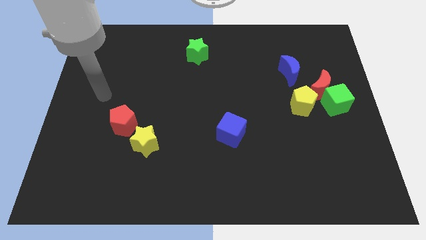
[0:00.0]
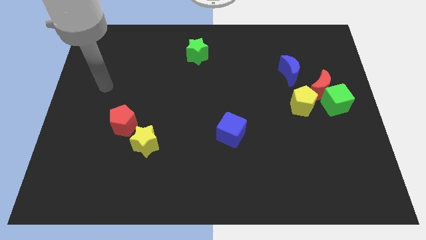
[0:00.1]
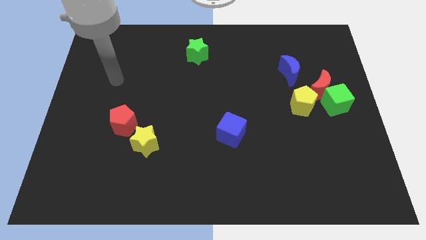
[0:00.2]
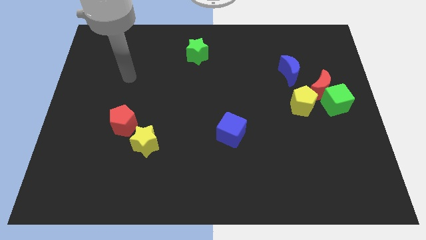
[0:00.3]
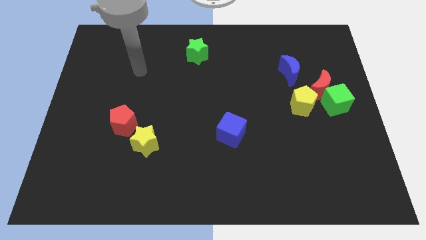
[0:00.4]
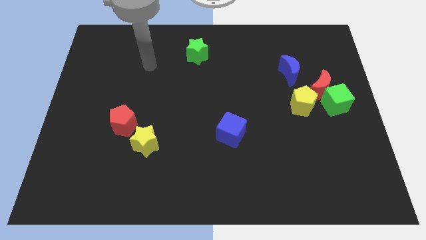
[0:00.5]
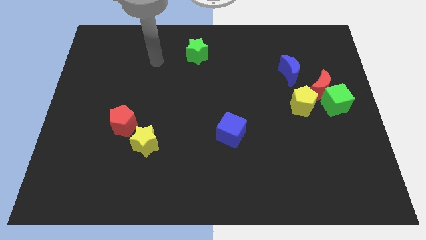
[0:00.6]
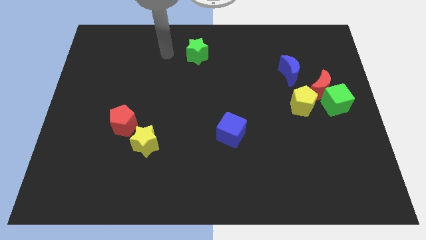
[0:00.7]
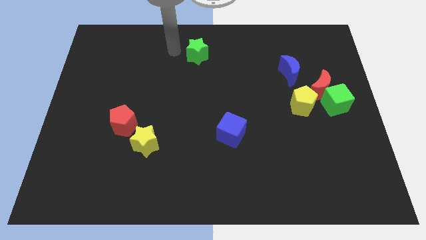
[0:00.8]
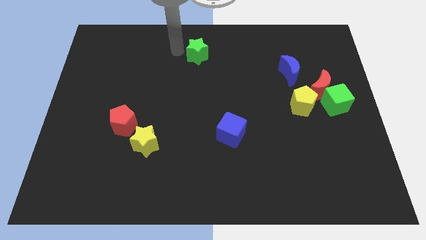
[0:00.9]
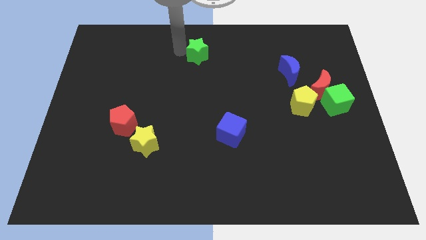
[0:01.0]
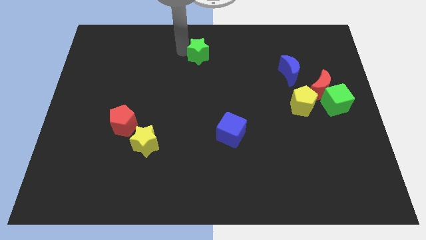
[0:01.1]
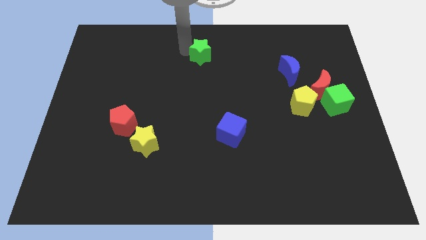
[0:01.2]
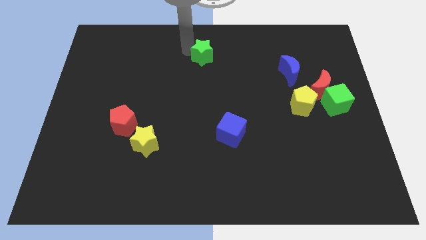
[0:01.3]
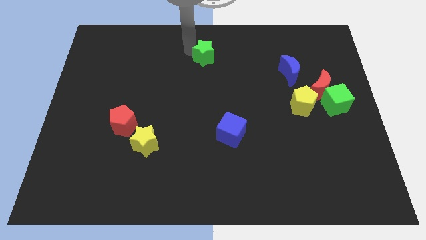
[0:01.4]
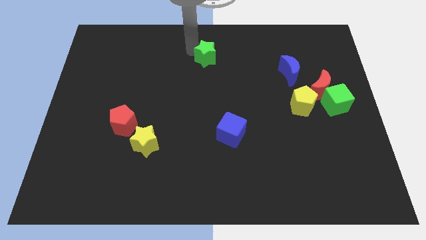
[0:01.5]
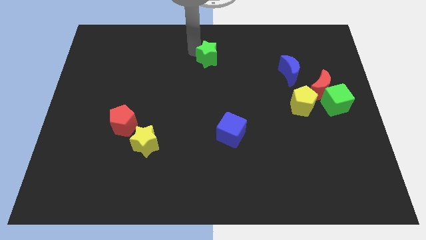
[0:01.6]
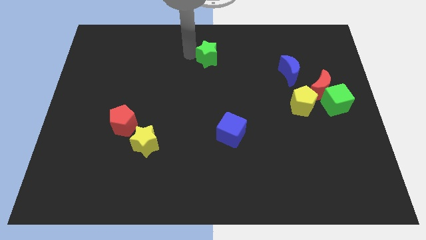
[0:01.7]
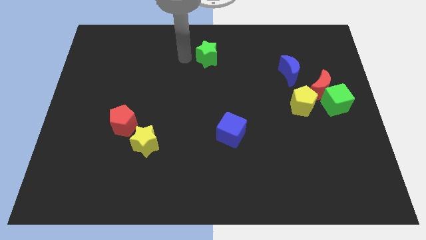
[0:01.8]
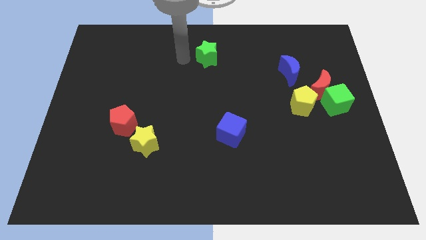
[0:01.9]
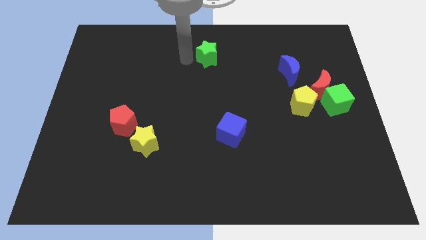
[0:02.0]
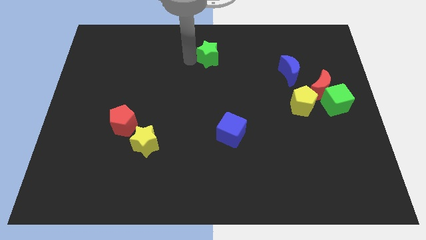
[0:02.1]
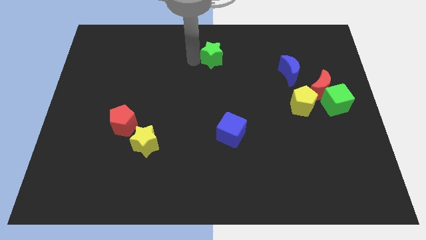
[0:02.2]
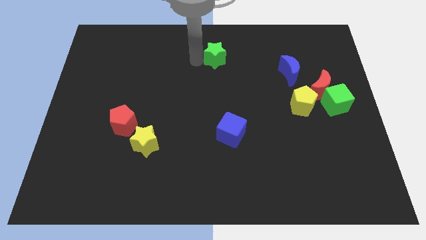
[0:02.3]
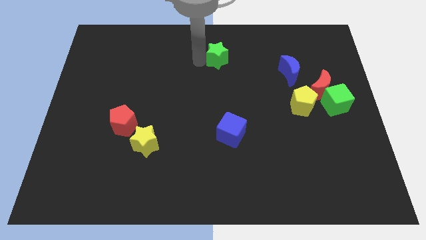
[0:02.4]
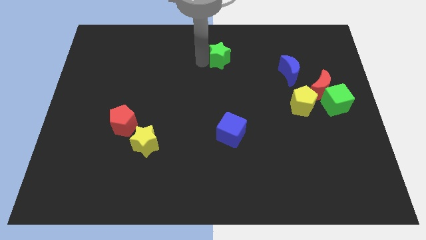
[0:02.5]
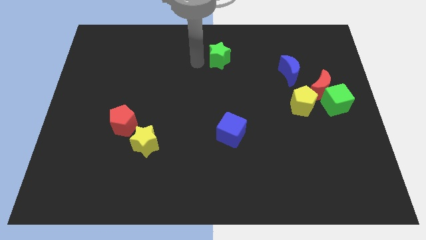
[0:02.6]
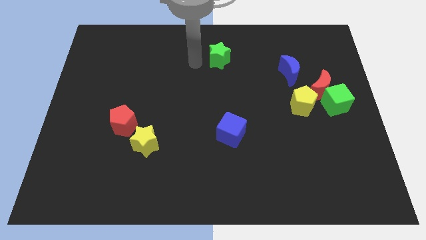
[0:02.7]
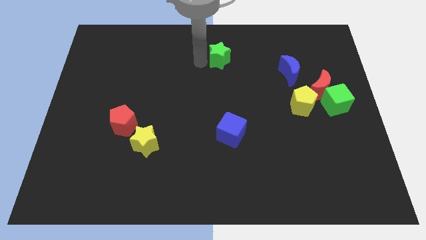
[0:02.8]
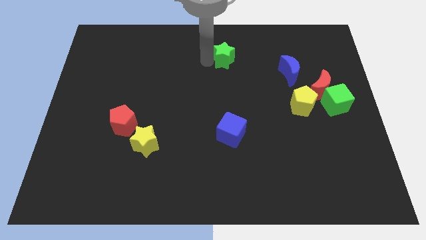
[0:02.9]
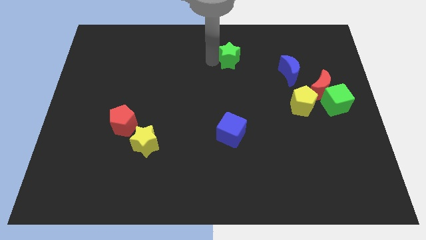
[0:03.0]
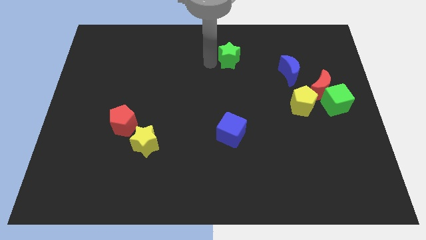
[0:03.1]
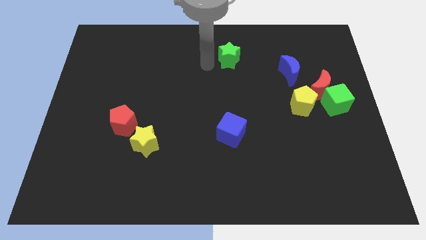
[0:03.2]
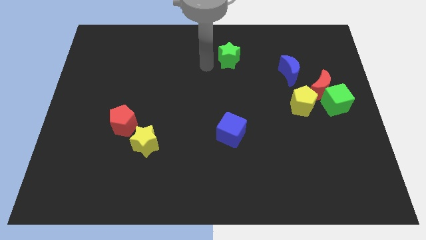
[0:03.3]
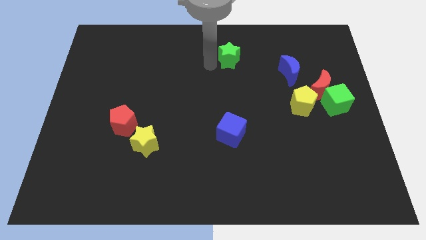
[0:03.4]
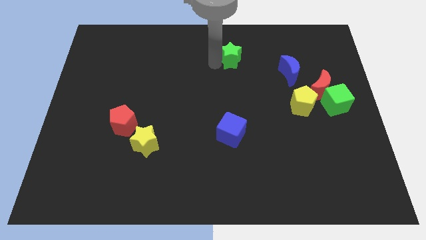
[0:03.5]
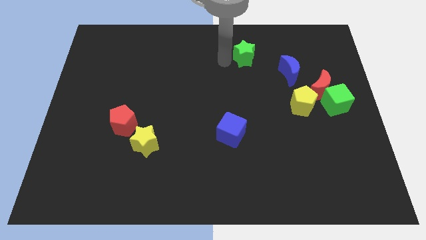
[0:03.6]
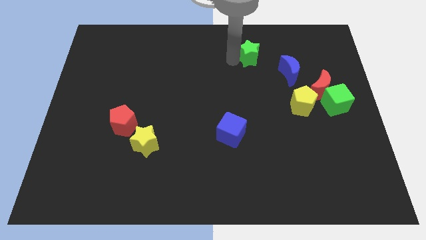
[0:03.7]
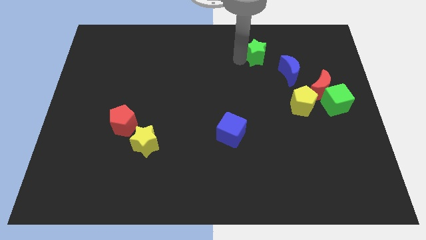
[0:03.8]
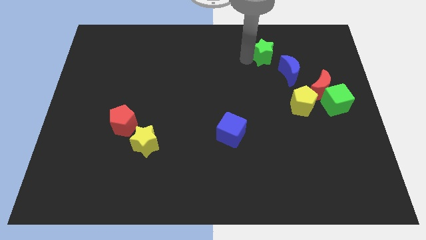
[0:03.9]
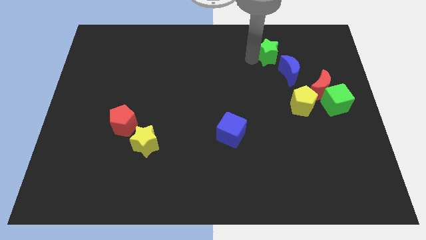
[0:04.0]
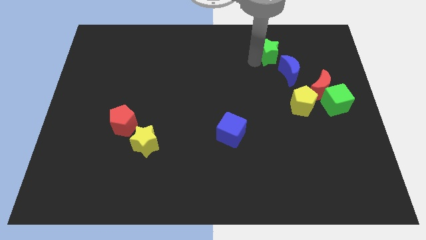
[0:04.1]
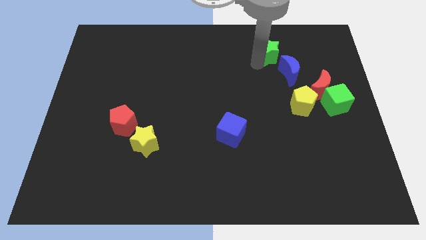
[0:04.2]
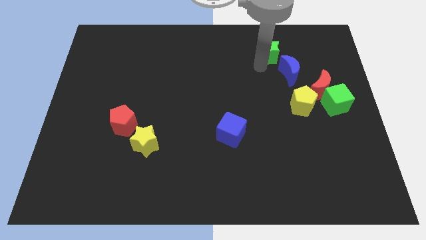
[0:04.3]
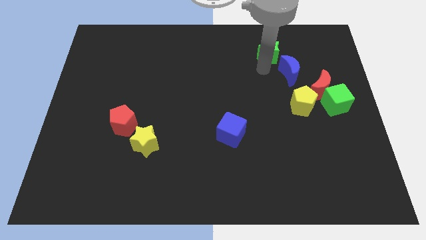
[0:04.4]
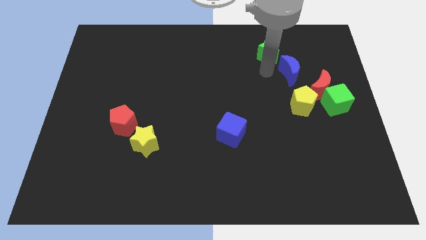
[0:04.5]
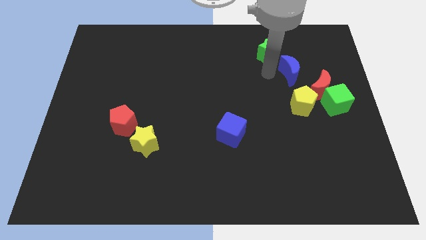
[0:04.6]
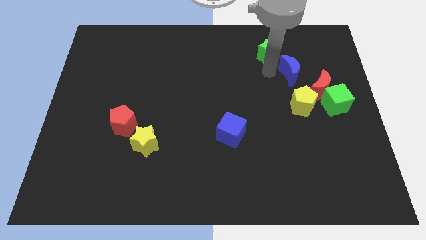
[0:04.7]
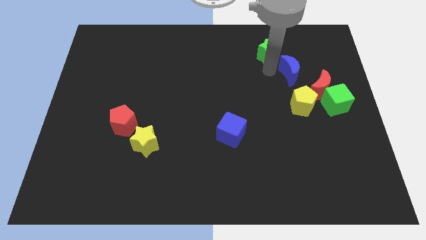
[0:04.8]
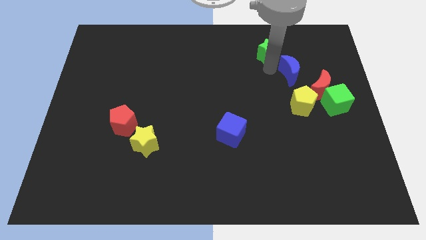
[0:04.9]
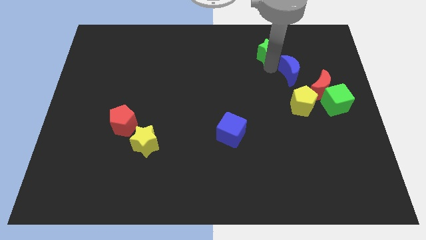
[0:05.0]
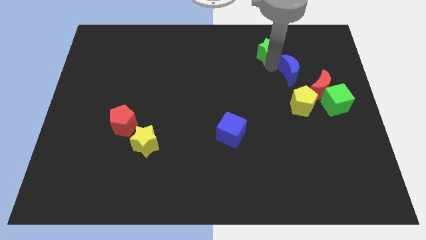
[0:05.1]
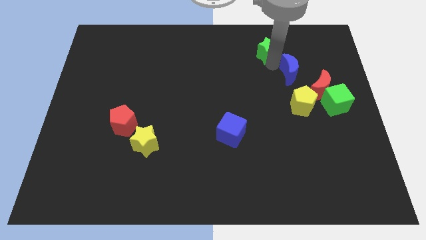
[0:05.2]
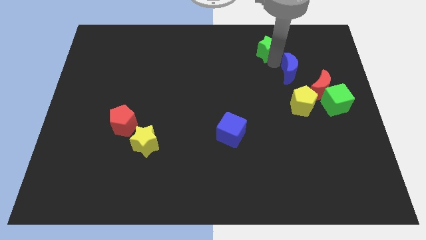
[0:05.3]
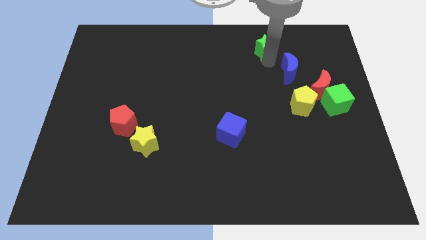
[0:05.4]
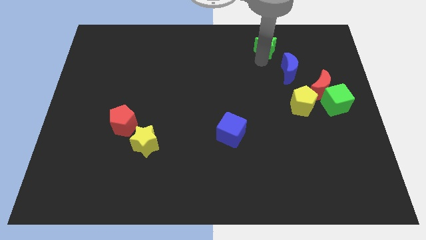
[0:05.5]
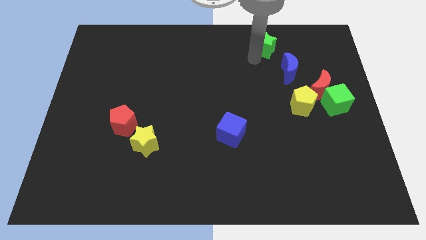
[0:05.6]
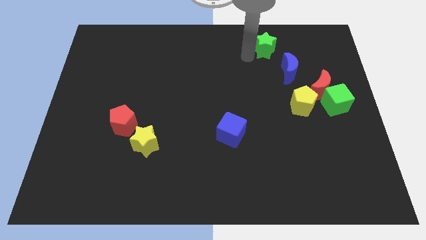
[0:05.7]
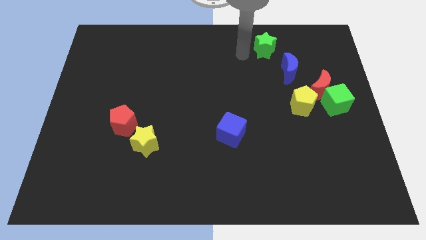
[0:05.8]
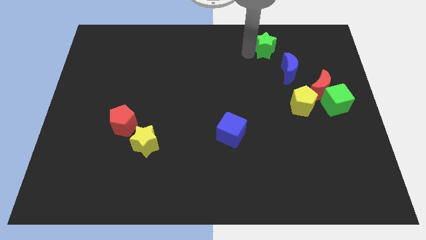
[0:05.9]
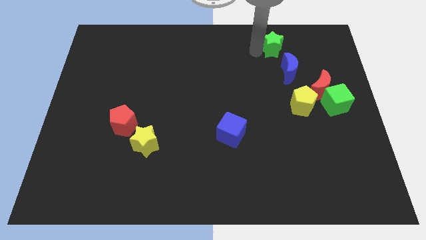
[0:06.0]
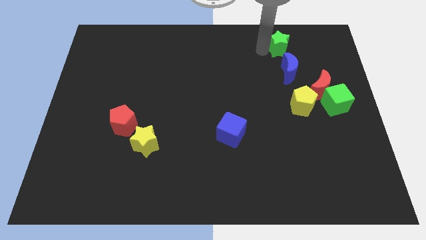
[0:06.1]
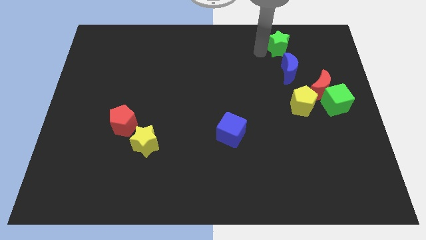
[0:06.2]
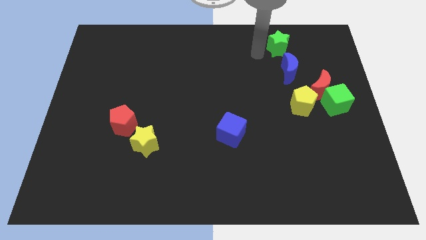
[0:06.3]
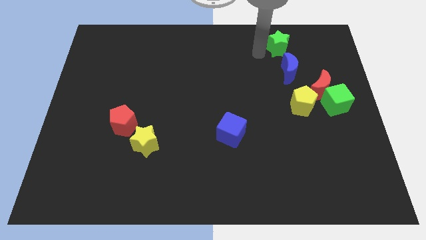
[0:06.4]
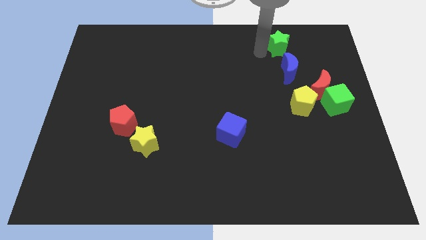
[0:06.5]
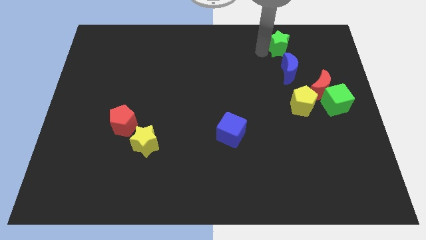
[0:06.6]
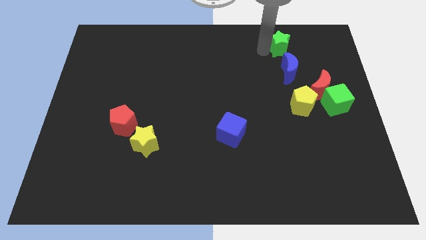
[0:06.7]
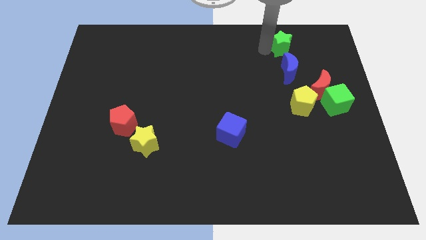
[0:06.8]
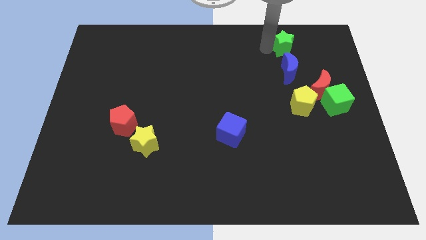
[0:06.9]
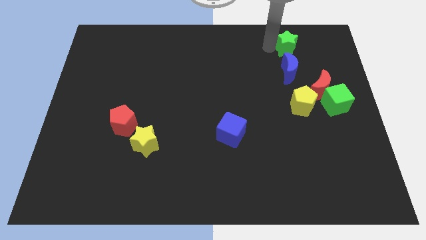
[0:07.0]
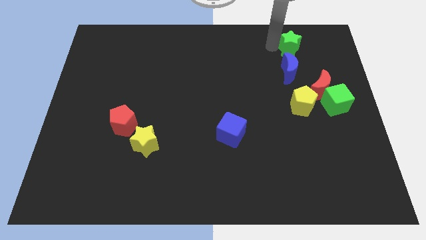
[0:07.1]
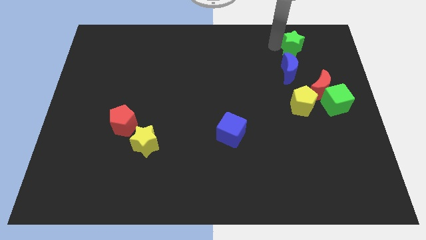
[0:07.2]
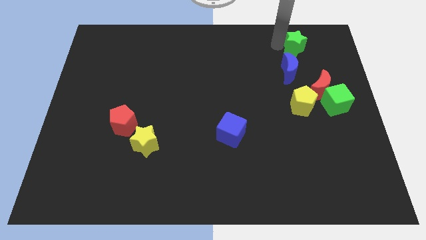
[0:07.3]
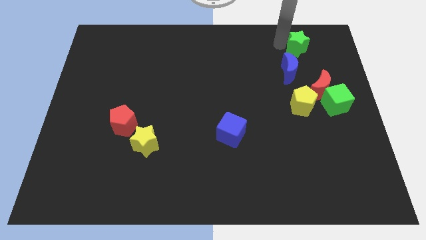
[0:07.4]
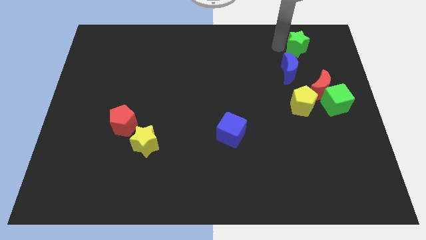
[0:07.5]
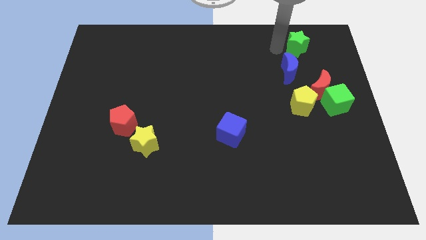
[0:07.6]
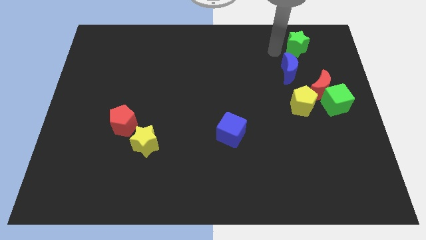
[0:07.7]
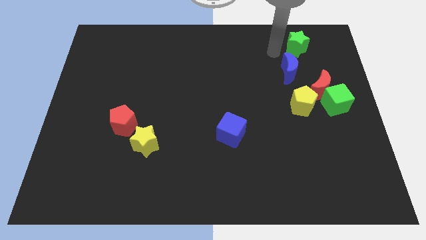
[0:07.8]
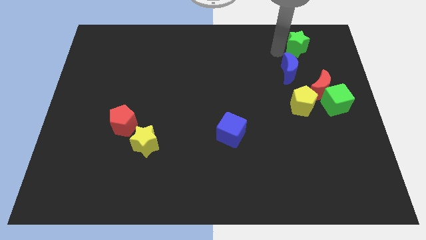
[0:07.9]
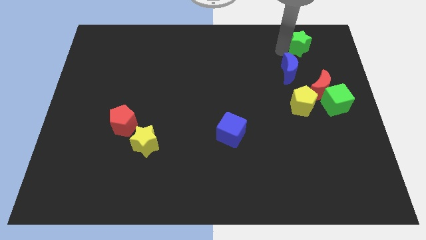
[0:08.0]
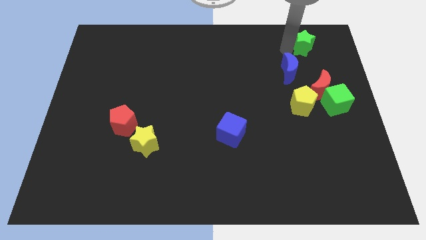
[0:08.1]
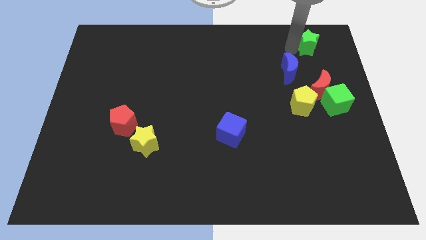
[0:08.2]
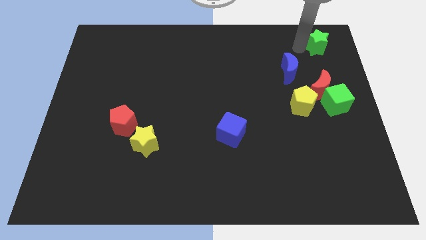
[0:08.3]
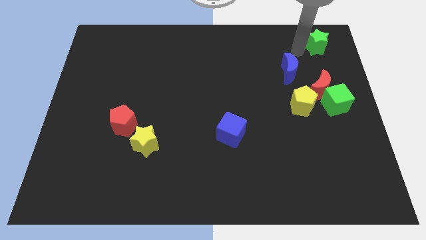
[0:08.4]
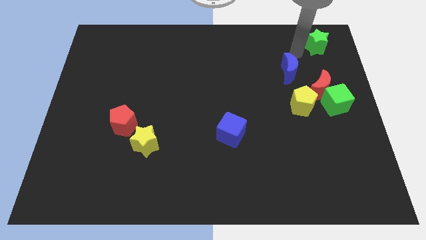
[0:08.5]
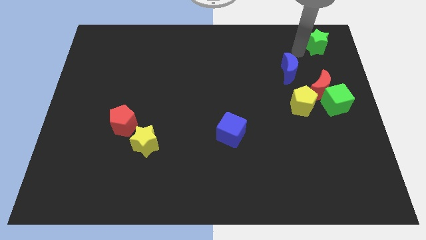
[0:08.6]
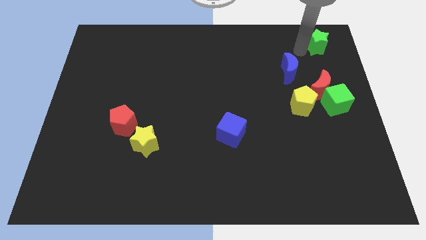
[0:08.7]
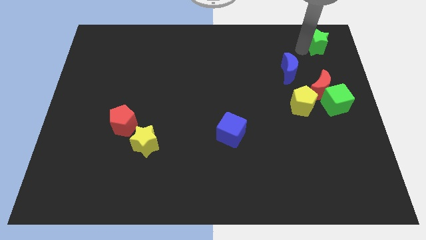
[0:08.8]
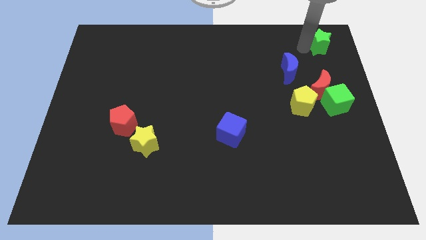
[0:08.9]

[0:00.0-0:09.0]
put the green star to the top right of the board
